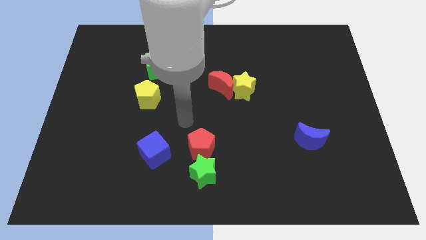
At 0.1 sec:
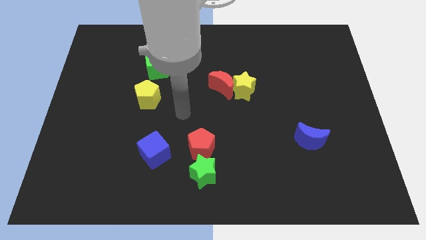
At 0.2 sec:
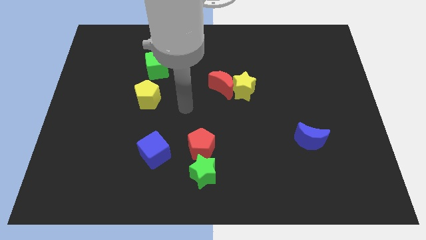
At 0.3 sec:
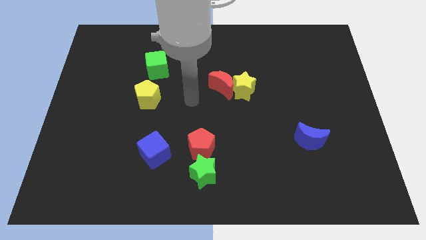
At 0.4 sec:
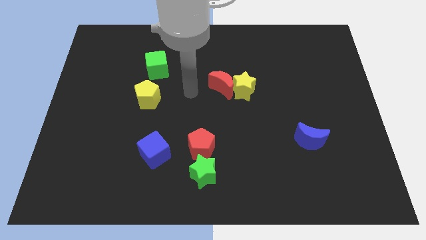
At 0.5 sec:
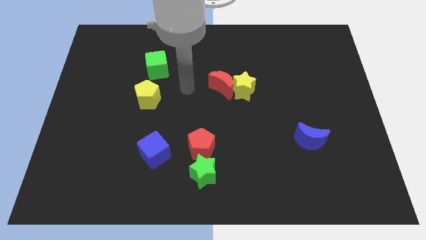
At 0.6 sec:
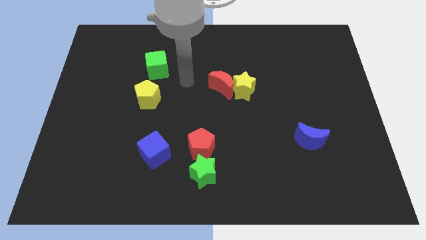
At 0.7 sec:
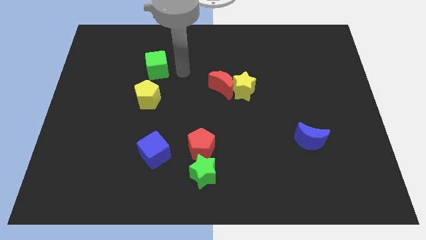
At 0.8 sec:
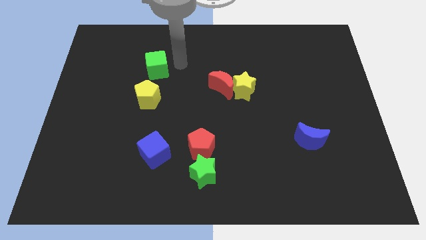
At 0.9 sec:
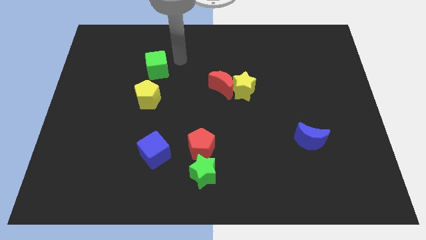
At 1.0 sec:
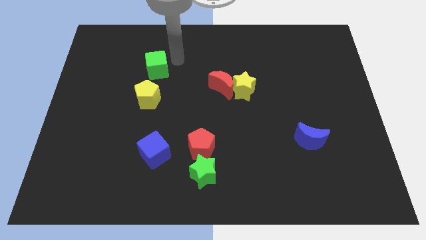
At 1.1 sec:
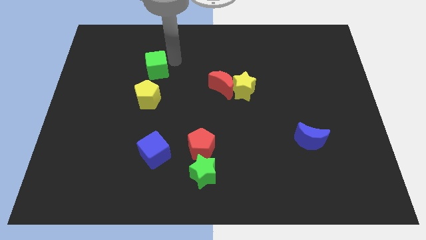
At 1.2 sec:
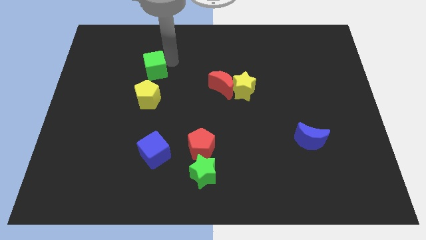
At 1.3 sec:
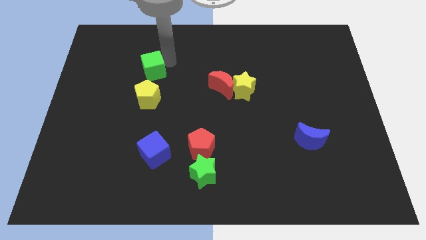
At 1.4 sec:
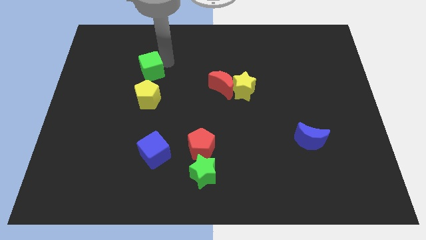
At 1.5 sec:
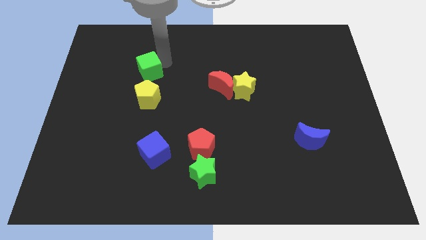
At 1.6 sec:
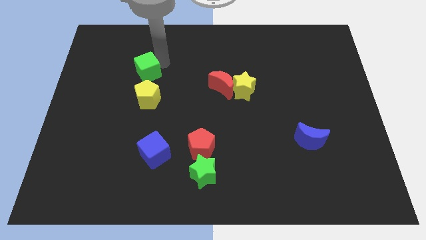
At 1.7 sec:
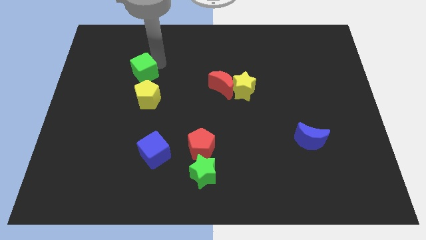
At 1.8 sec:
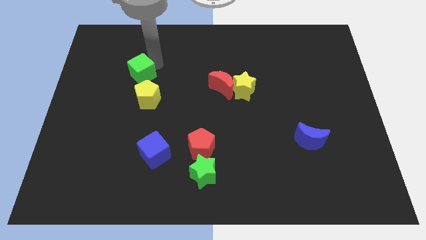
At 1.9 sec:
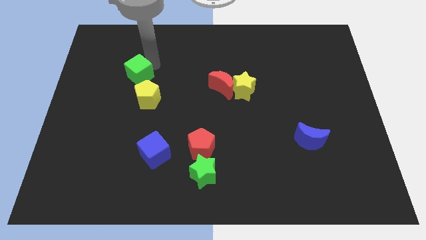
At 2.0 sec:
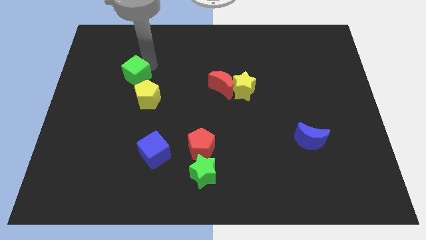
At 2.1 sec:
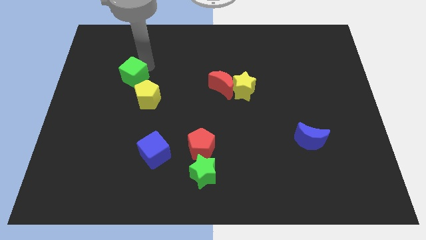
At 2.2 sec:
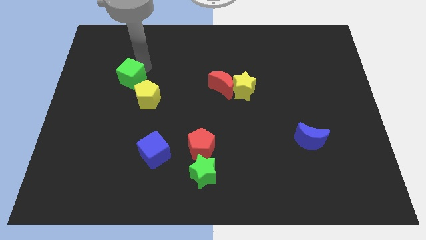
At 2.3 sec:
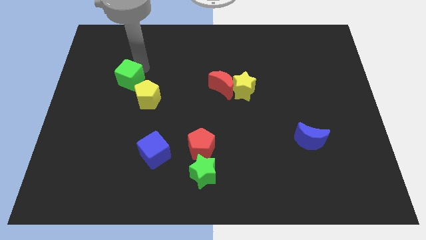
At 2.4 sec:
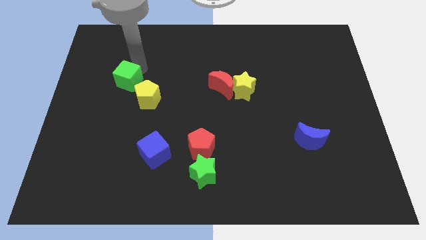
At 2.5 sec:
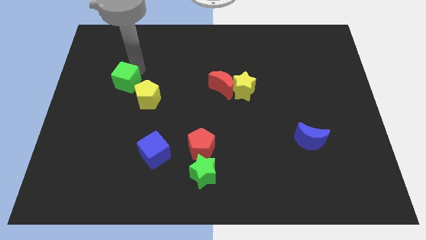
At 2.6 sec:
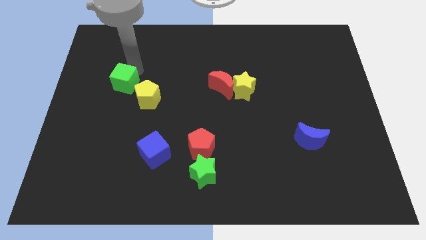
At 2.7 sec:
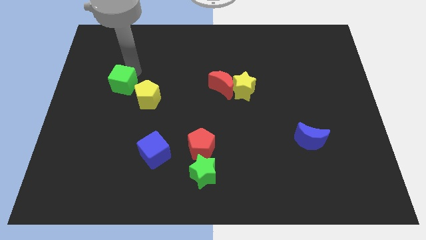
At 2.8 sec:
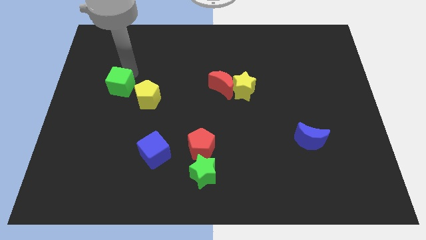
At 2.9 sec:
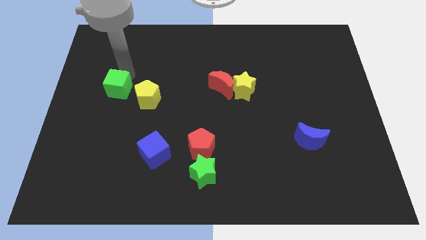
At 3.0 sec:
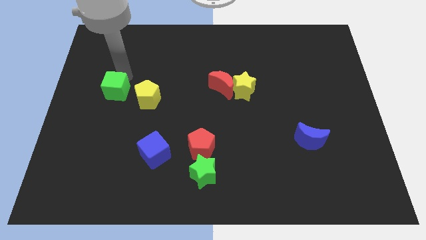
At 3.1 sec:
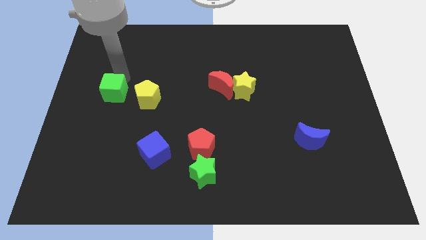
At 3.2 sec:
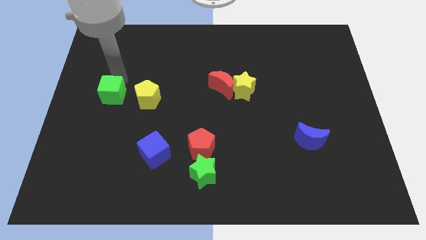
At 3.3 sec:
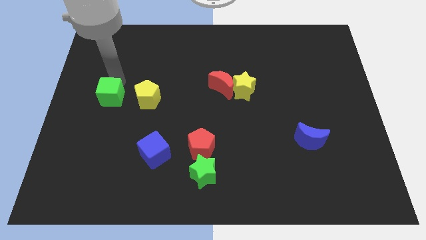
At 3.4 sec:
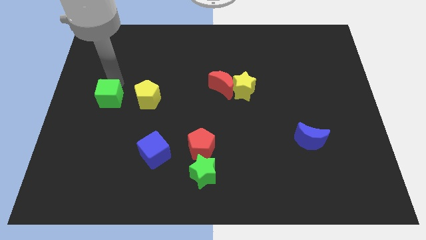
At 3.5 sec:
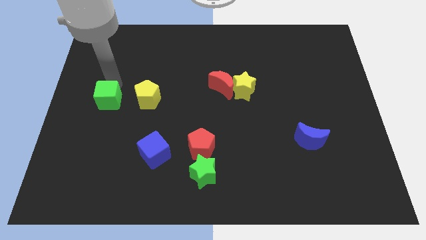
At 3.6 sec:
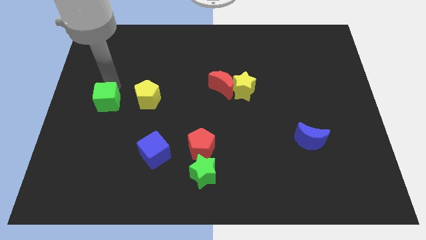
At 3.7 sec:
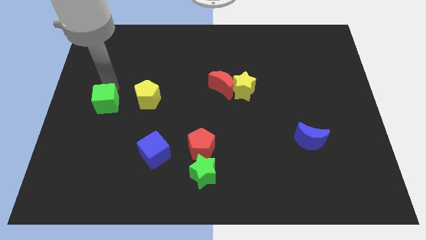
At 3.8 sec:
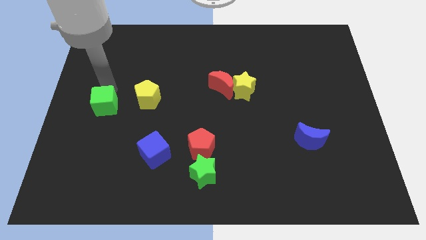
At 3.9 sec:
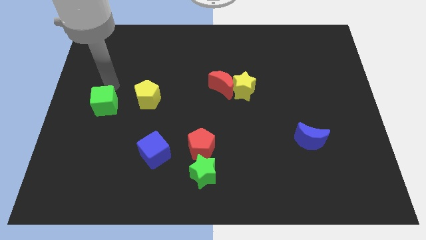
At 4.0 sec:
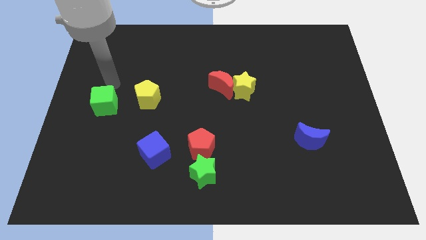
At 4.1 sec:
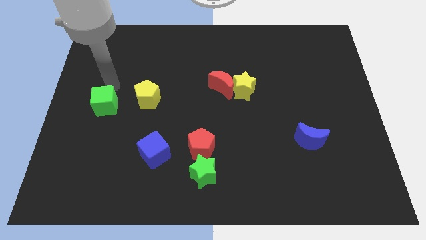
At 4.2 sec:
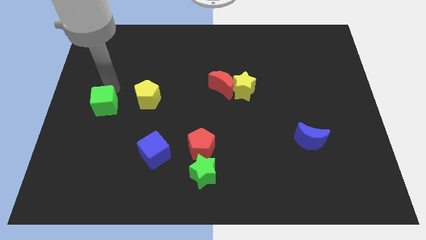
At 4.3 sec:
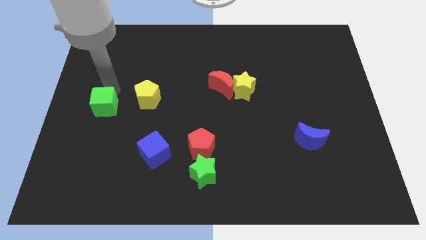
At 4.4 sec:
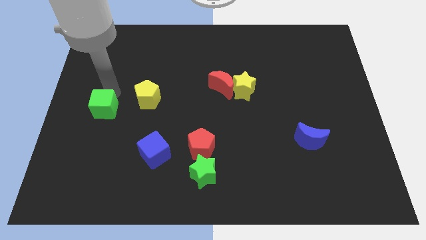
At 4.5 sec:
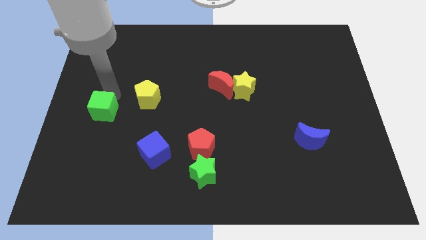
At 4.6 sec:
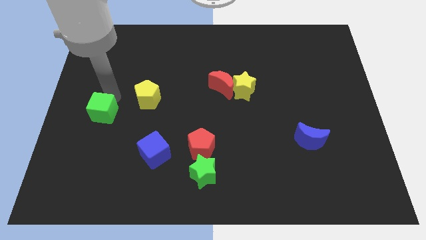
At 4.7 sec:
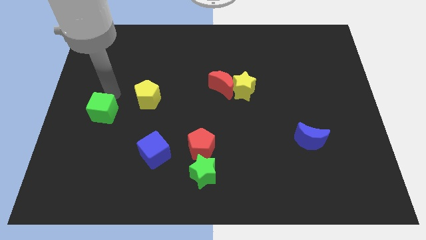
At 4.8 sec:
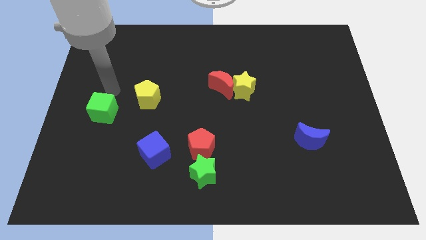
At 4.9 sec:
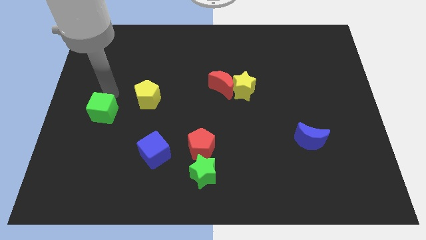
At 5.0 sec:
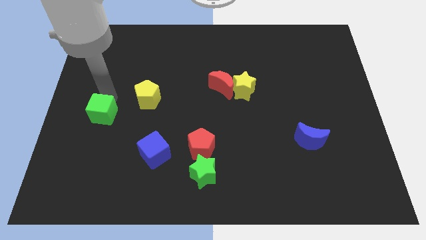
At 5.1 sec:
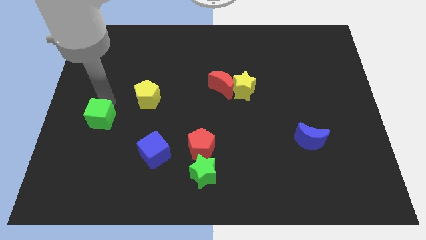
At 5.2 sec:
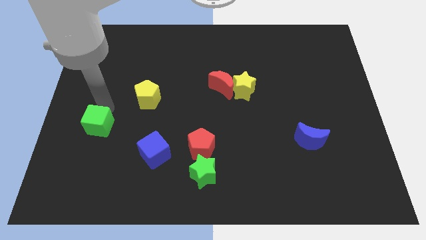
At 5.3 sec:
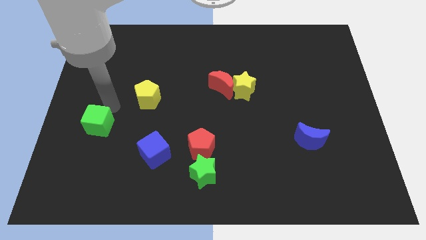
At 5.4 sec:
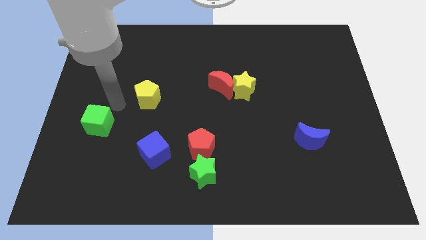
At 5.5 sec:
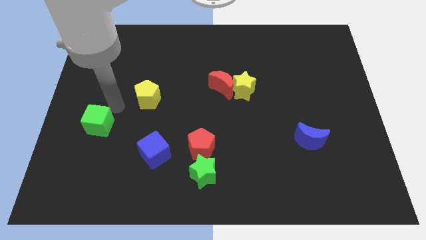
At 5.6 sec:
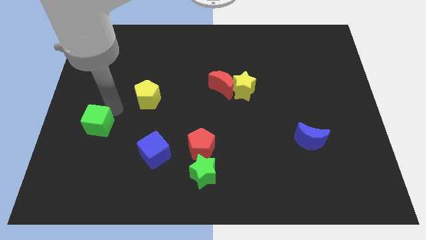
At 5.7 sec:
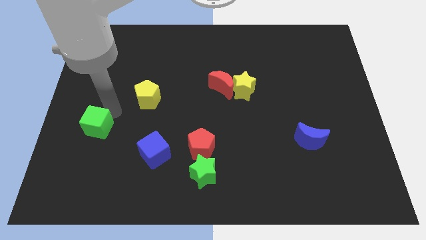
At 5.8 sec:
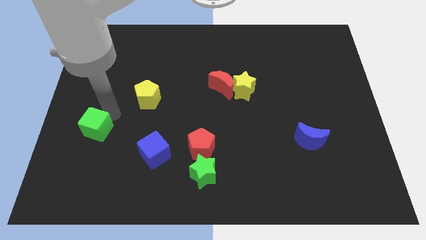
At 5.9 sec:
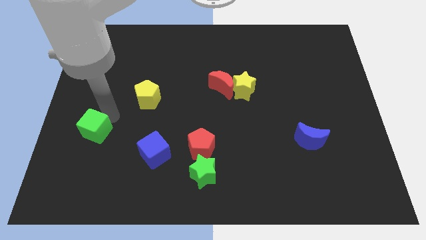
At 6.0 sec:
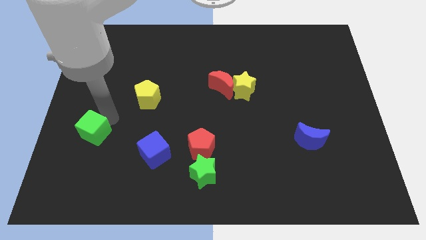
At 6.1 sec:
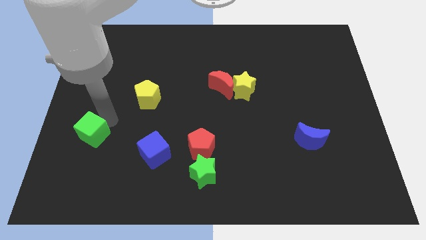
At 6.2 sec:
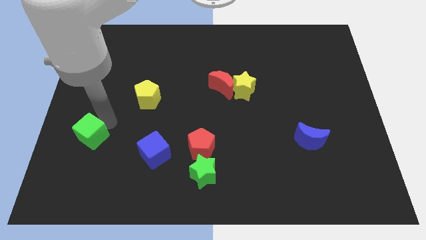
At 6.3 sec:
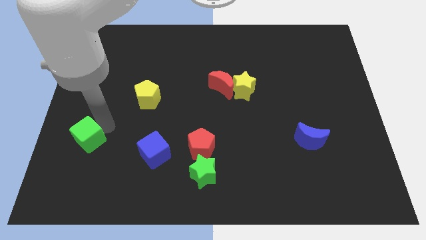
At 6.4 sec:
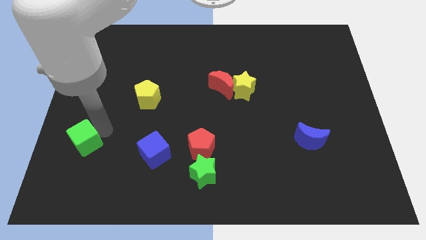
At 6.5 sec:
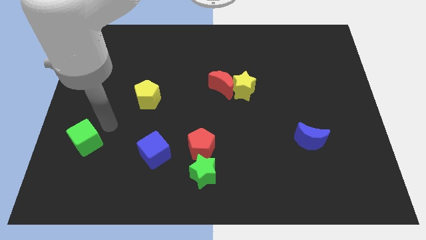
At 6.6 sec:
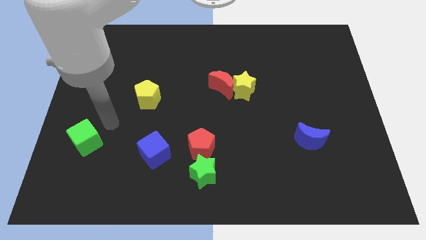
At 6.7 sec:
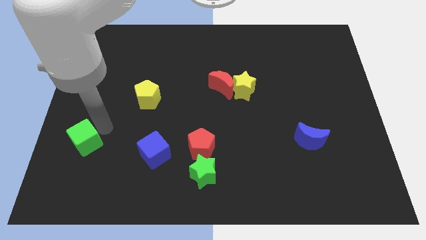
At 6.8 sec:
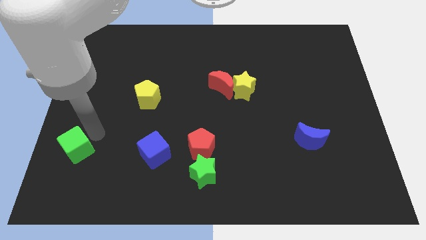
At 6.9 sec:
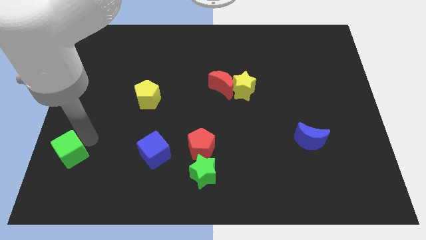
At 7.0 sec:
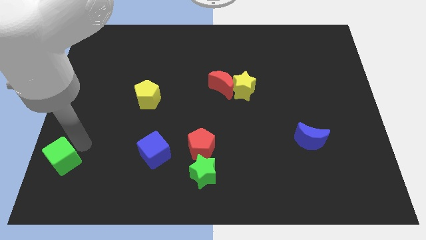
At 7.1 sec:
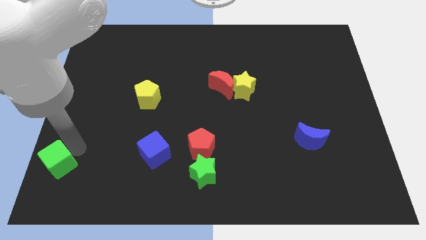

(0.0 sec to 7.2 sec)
put the green cube to the bottom left of the board
